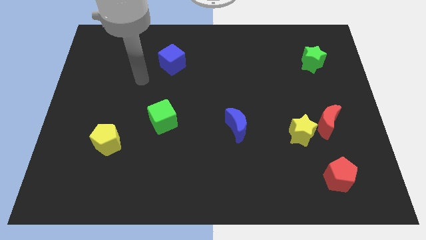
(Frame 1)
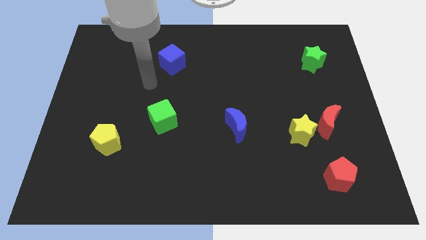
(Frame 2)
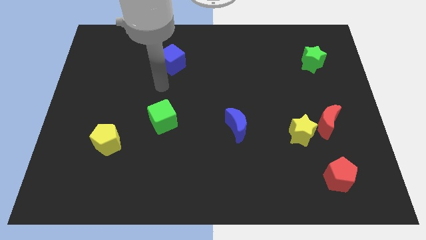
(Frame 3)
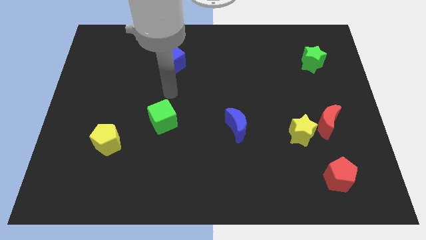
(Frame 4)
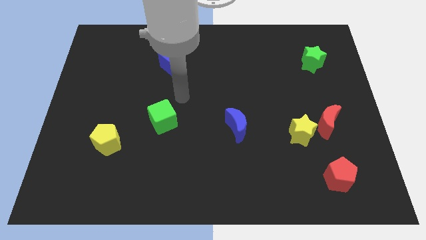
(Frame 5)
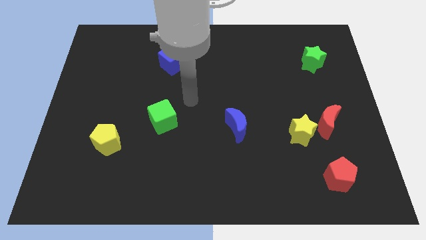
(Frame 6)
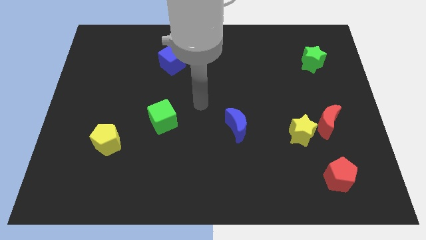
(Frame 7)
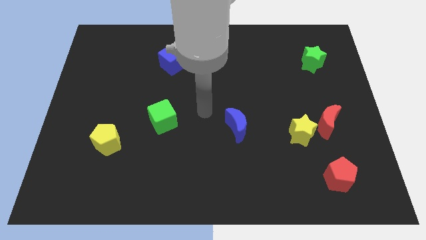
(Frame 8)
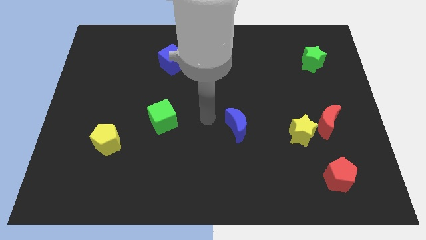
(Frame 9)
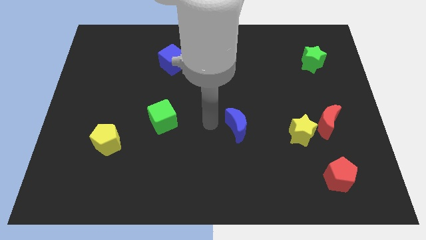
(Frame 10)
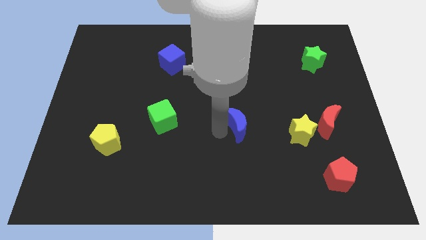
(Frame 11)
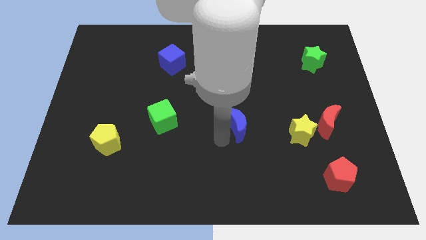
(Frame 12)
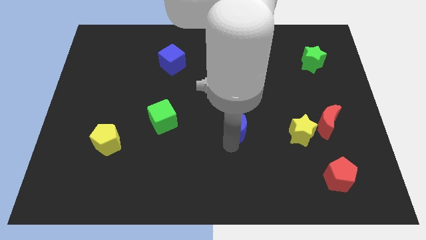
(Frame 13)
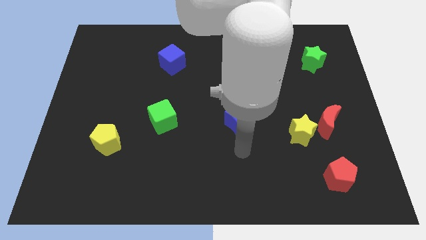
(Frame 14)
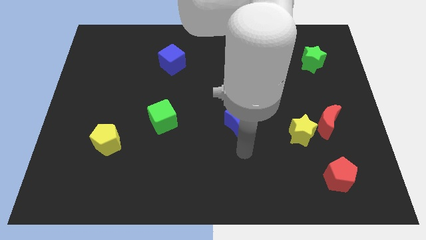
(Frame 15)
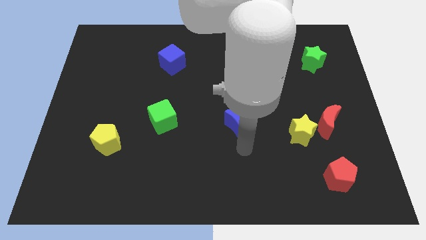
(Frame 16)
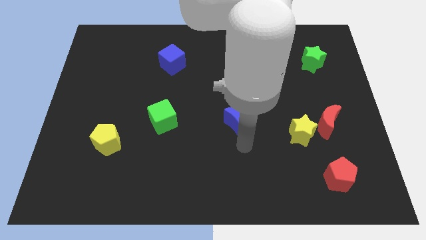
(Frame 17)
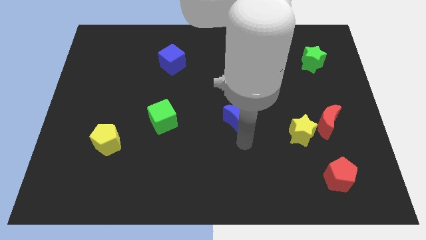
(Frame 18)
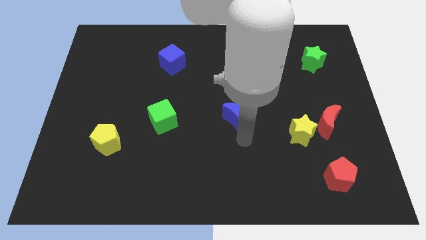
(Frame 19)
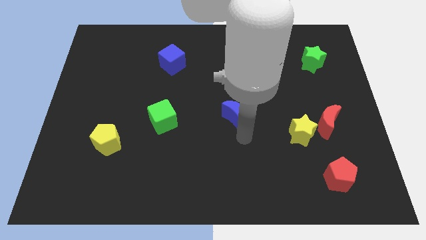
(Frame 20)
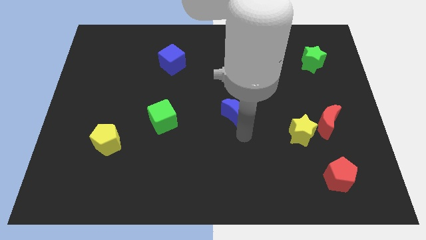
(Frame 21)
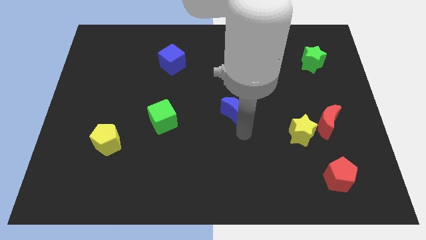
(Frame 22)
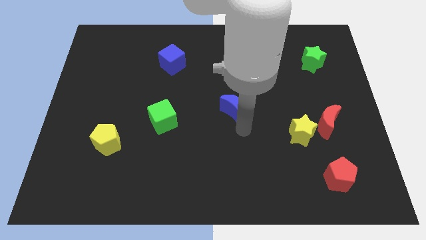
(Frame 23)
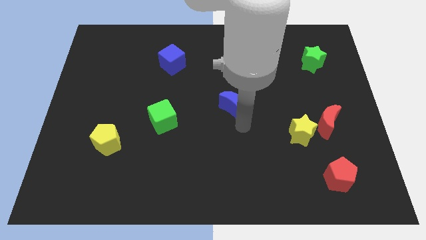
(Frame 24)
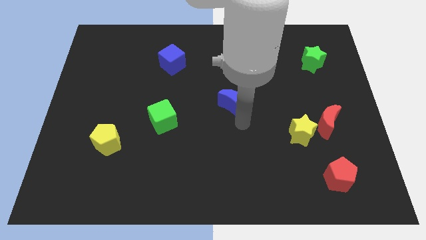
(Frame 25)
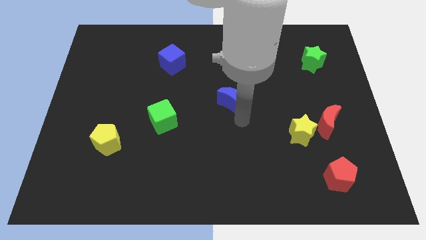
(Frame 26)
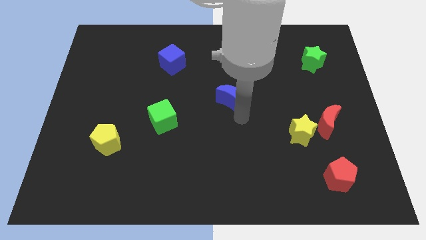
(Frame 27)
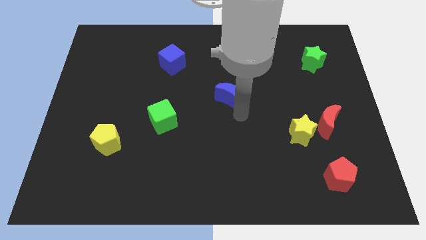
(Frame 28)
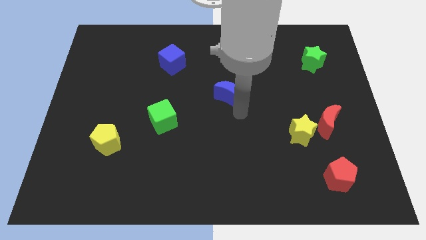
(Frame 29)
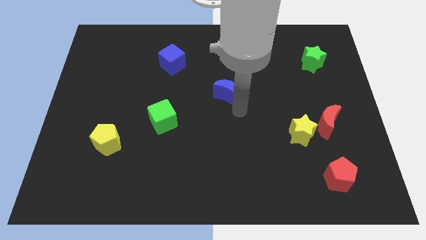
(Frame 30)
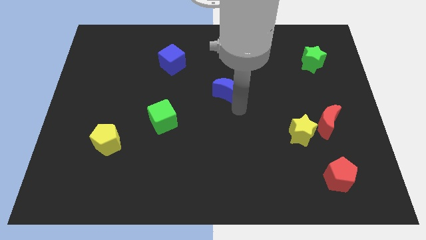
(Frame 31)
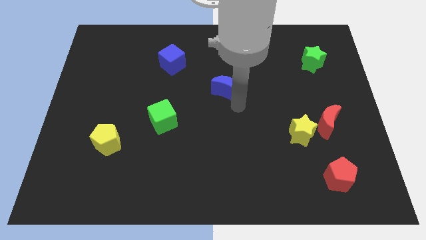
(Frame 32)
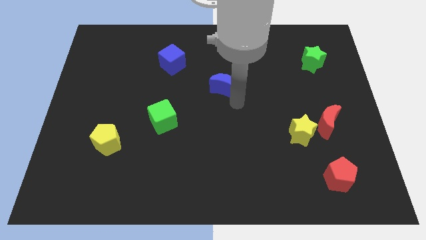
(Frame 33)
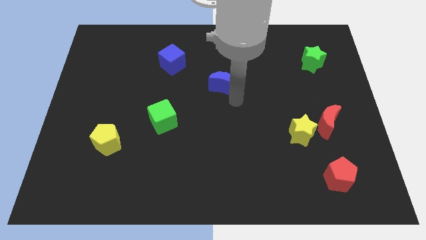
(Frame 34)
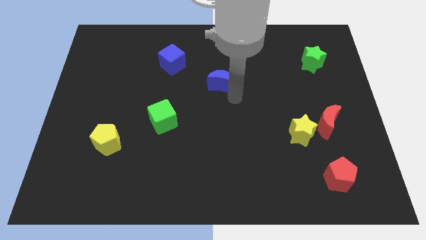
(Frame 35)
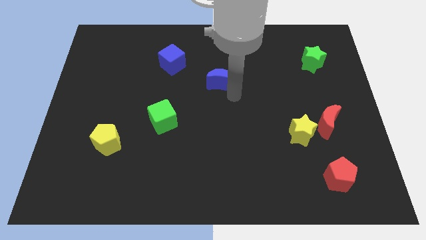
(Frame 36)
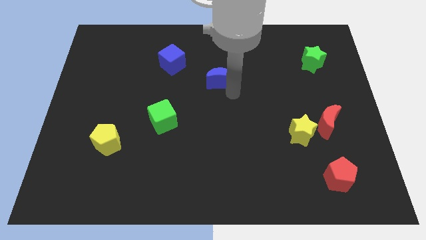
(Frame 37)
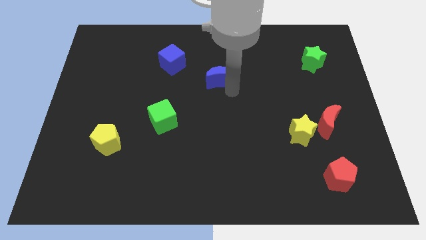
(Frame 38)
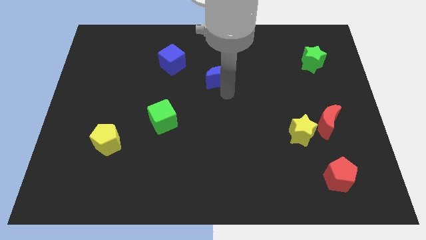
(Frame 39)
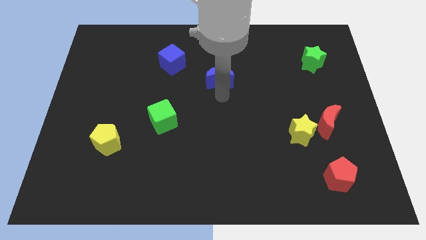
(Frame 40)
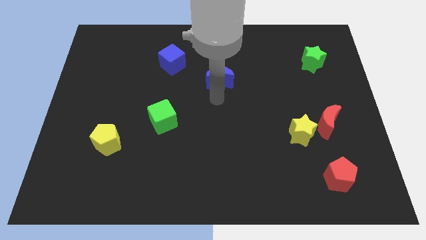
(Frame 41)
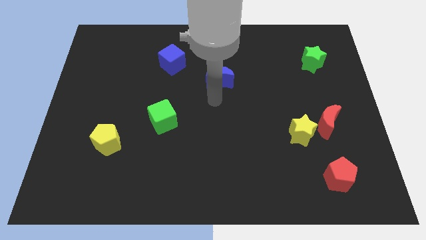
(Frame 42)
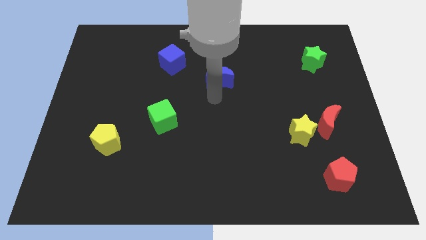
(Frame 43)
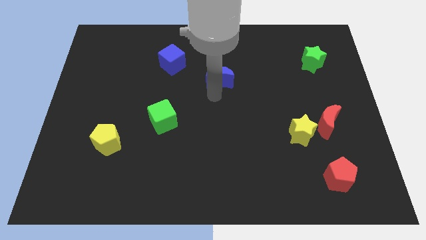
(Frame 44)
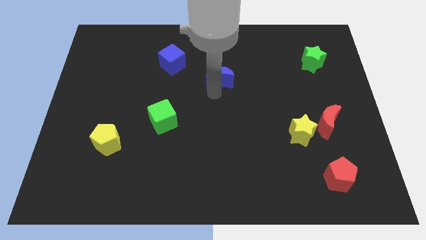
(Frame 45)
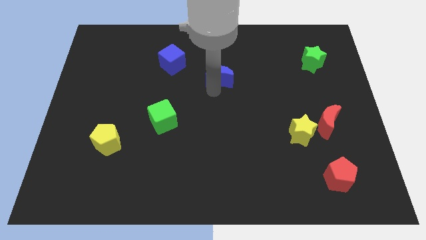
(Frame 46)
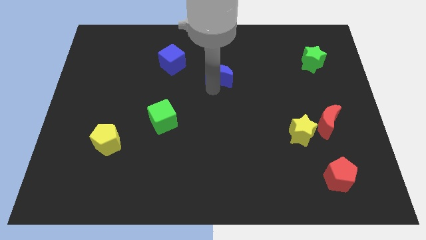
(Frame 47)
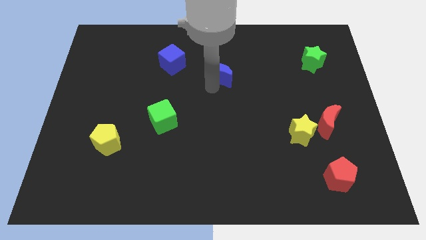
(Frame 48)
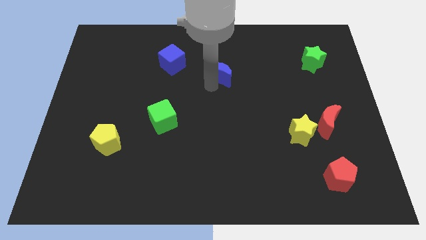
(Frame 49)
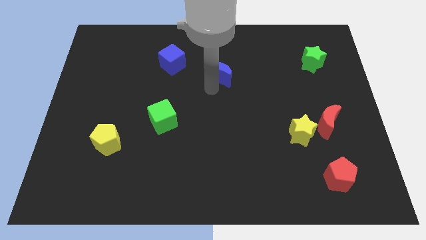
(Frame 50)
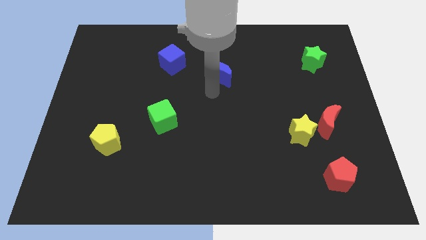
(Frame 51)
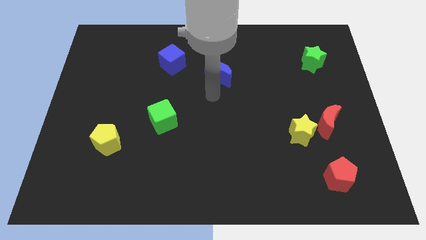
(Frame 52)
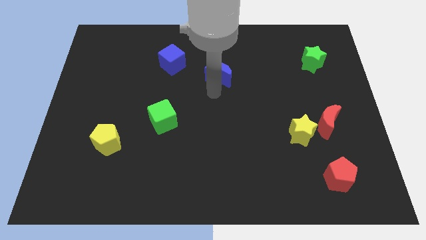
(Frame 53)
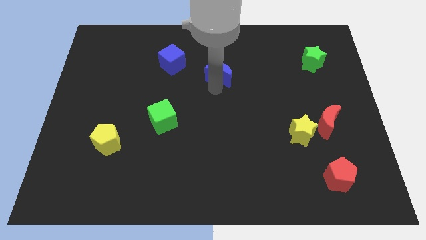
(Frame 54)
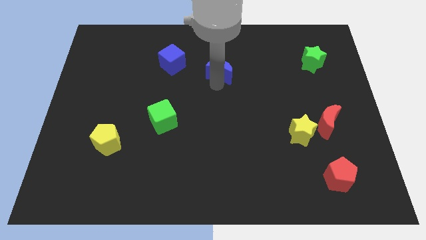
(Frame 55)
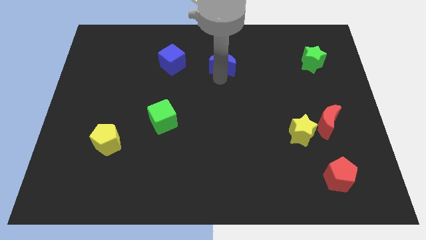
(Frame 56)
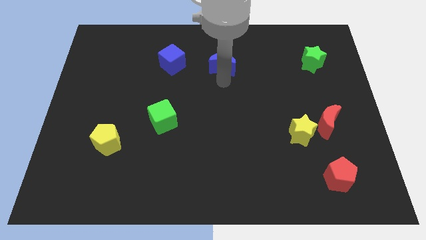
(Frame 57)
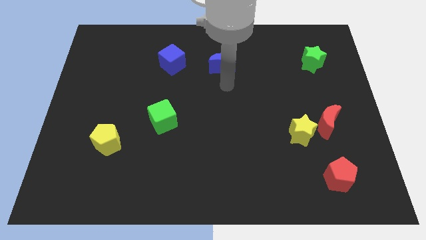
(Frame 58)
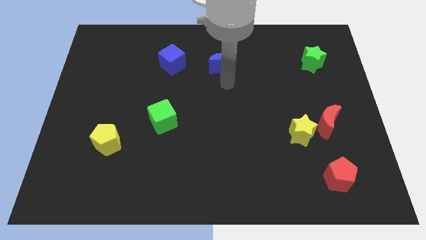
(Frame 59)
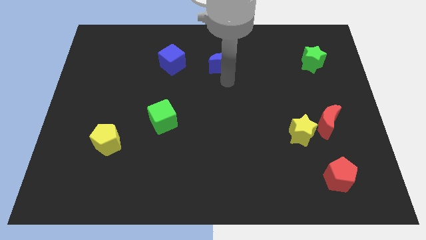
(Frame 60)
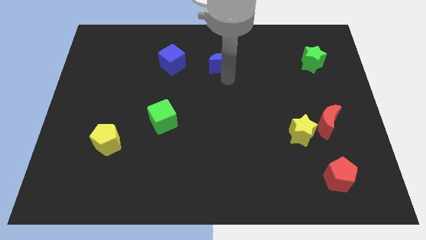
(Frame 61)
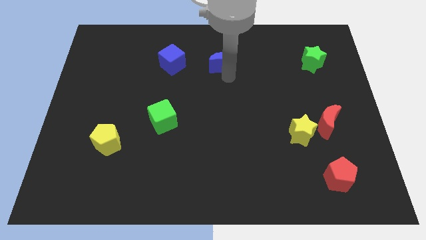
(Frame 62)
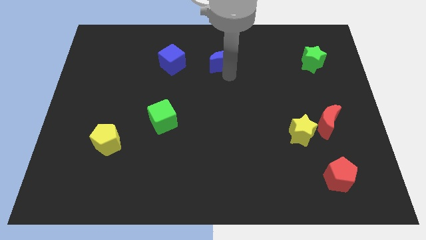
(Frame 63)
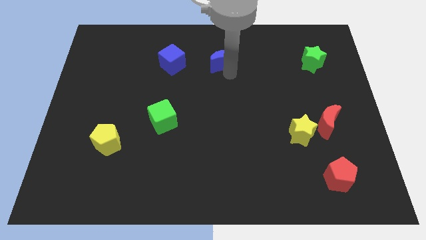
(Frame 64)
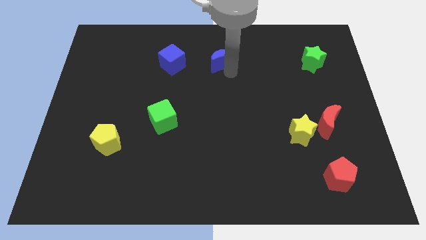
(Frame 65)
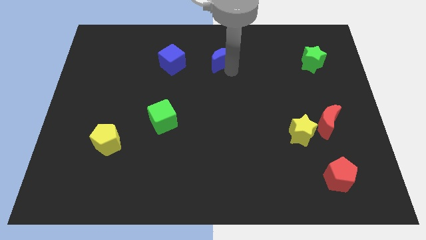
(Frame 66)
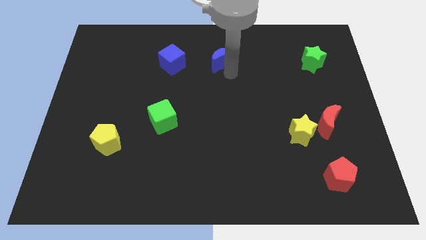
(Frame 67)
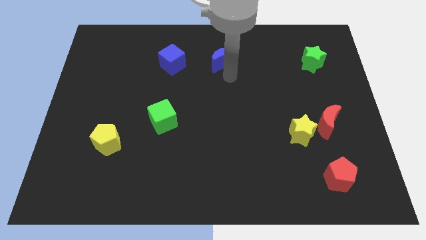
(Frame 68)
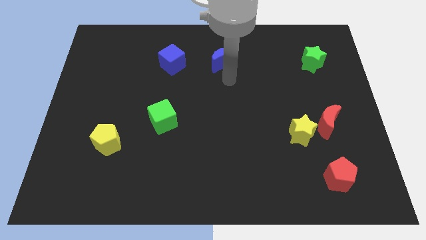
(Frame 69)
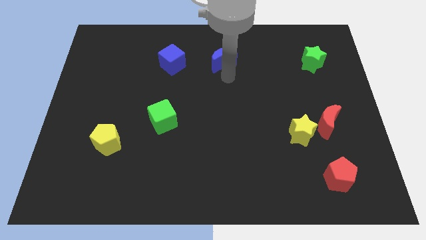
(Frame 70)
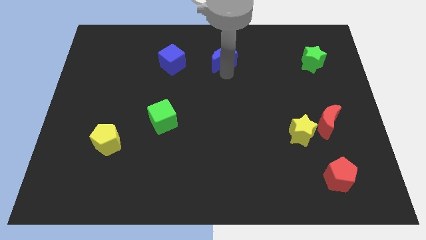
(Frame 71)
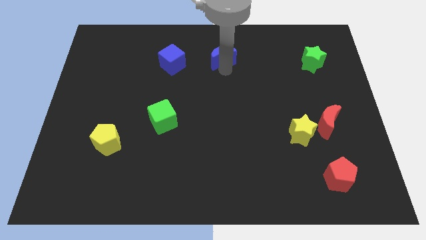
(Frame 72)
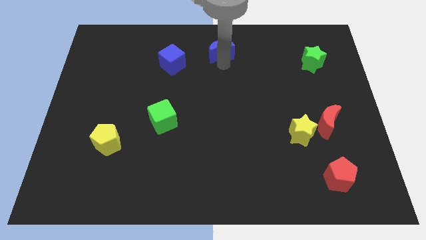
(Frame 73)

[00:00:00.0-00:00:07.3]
slide the blue moon to the top side
